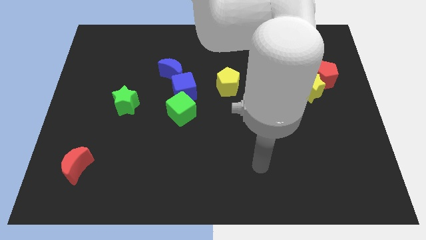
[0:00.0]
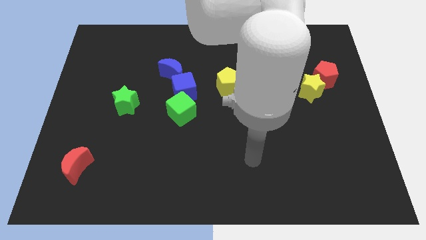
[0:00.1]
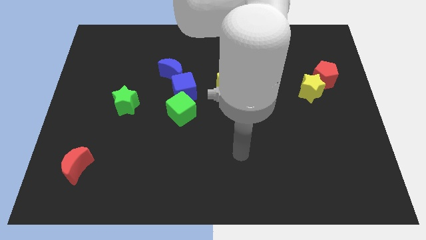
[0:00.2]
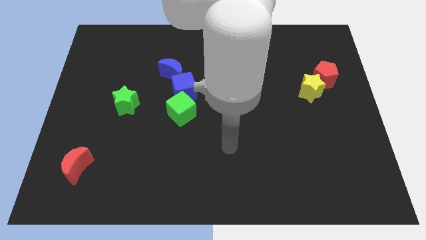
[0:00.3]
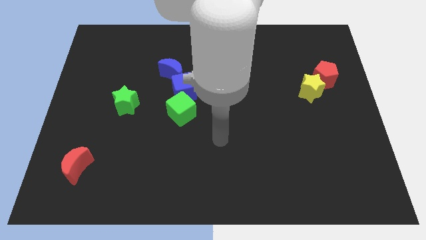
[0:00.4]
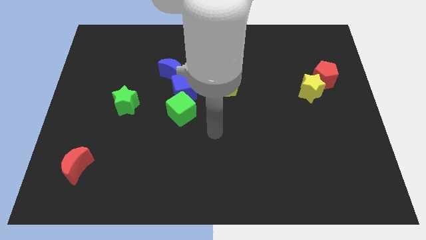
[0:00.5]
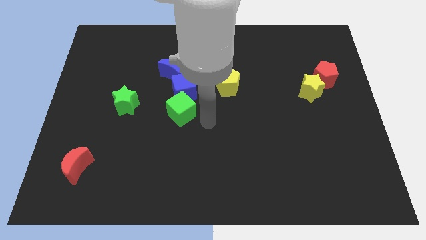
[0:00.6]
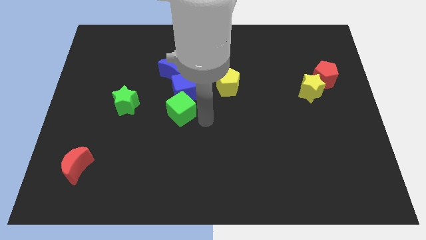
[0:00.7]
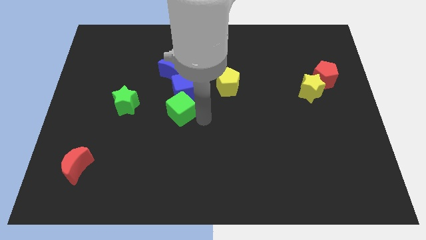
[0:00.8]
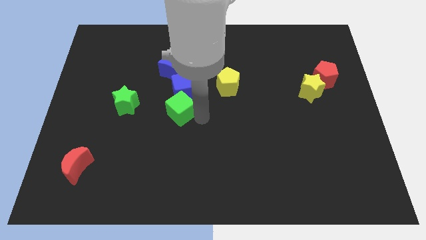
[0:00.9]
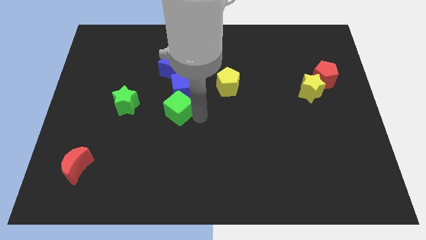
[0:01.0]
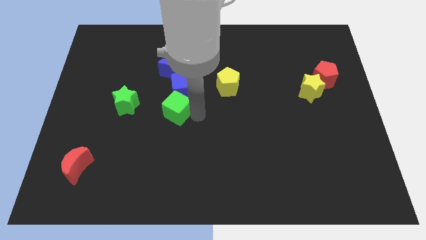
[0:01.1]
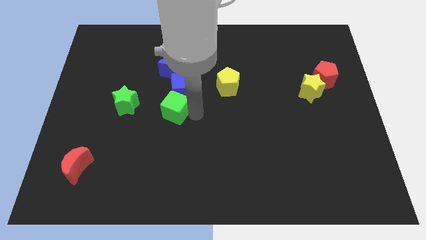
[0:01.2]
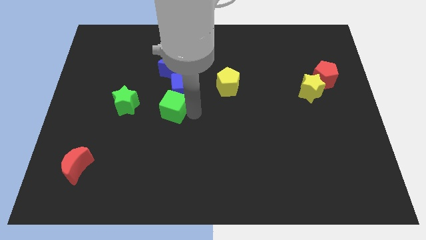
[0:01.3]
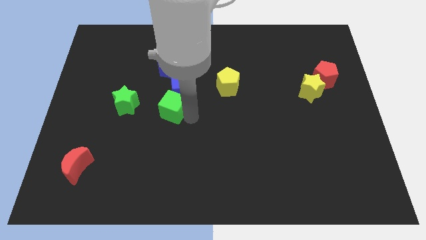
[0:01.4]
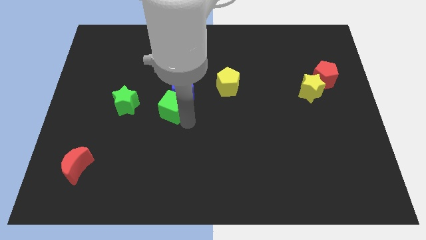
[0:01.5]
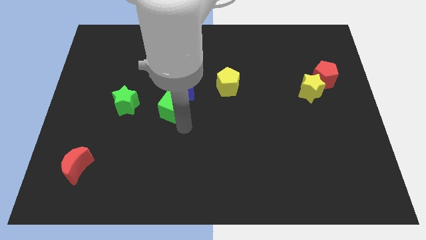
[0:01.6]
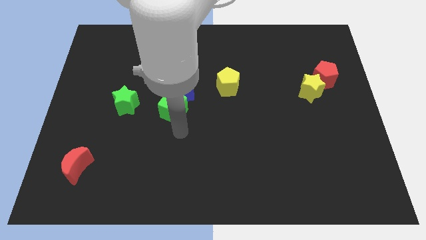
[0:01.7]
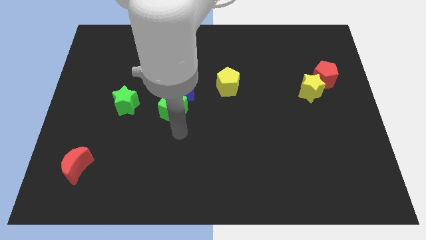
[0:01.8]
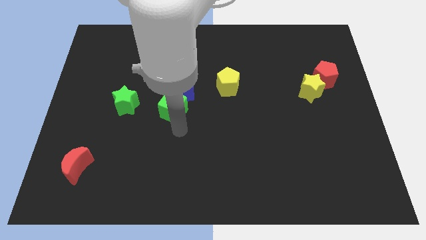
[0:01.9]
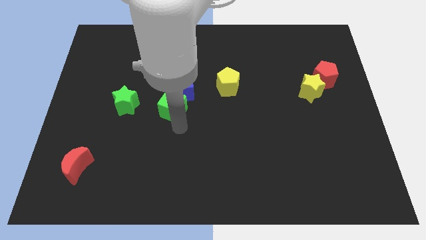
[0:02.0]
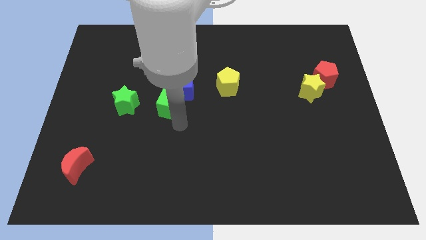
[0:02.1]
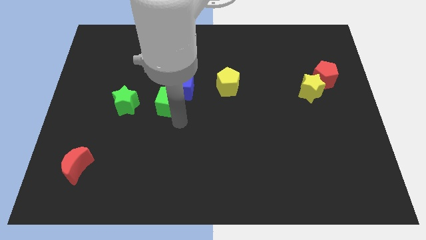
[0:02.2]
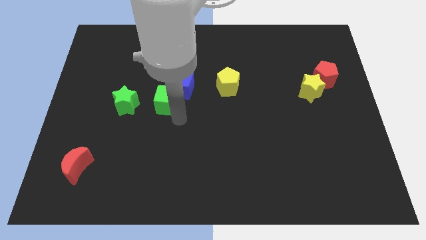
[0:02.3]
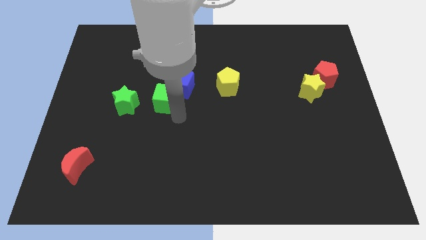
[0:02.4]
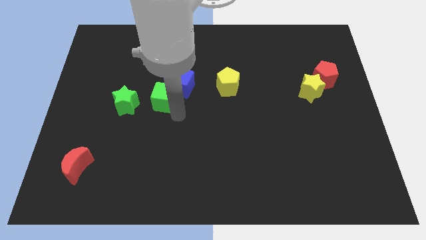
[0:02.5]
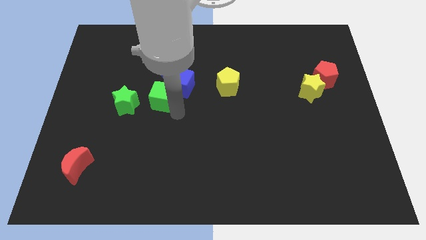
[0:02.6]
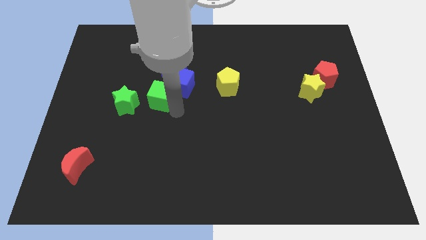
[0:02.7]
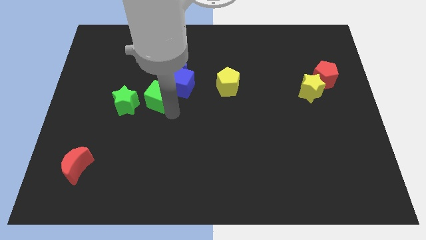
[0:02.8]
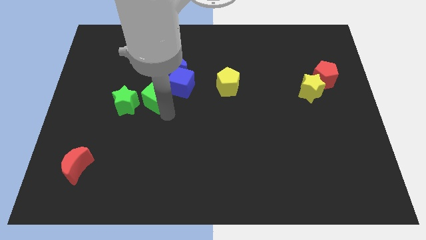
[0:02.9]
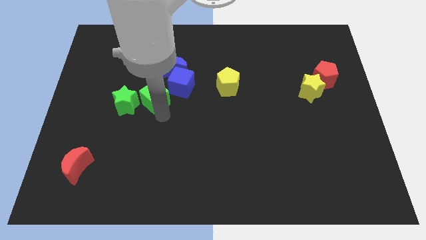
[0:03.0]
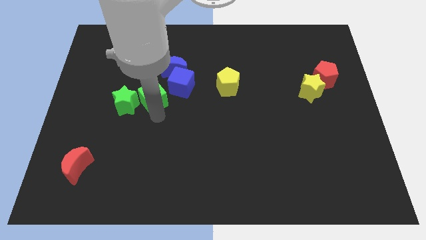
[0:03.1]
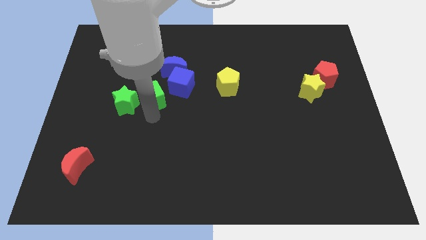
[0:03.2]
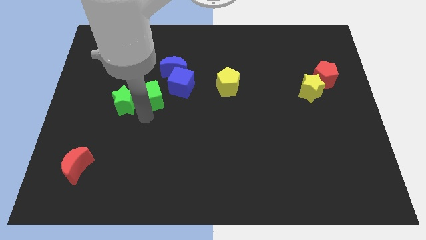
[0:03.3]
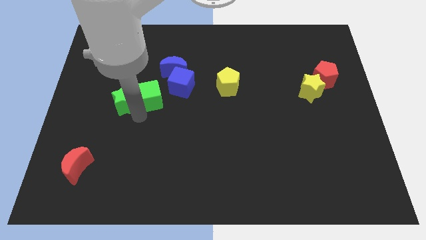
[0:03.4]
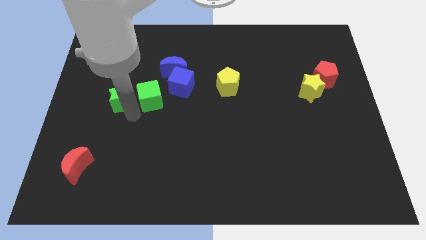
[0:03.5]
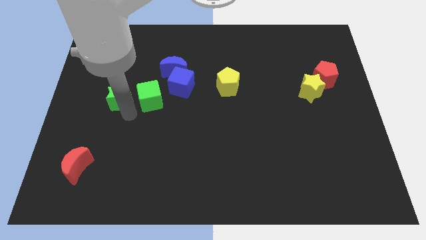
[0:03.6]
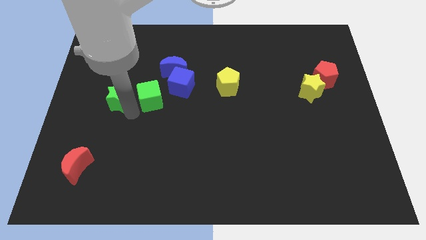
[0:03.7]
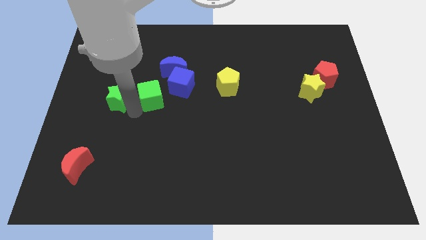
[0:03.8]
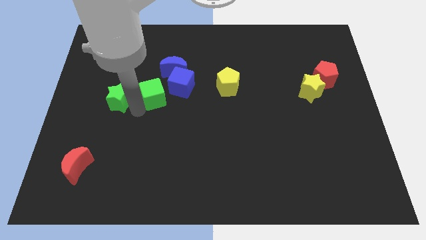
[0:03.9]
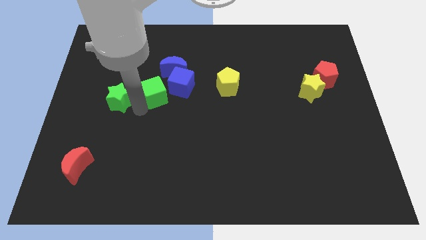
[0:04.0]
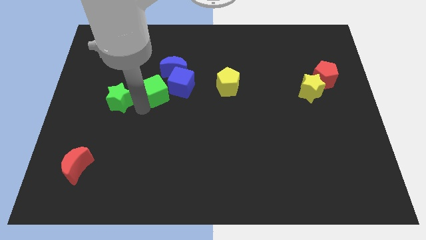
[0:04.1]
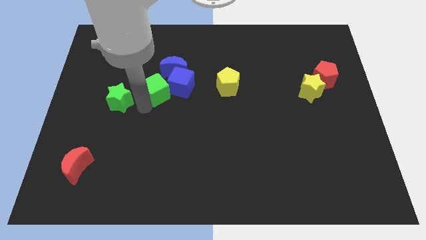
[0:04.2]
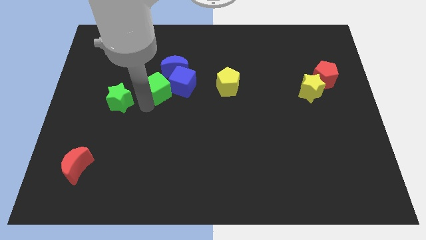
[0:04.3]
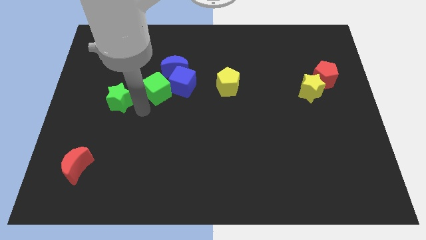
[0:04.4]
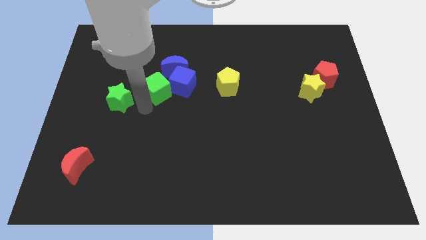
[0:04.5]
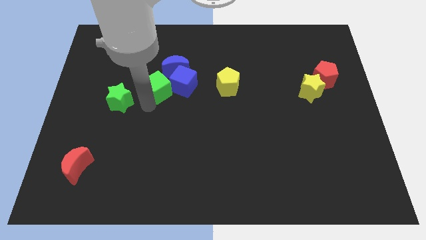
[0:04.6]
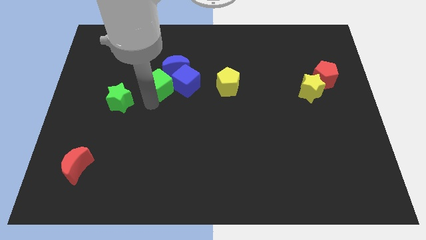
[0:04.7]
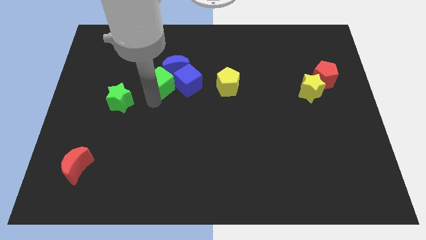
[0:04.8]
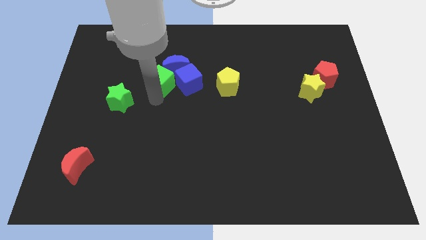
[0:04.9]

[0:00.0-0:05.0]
push the green cube to the blue moon

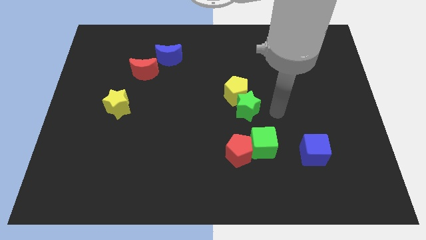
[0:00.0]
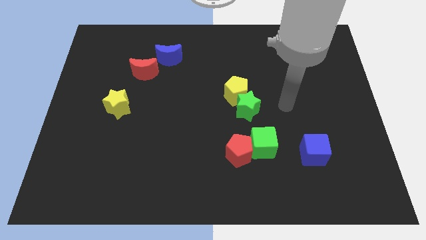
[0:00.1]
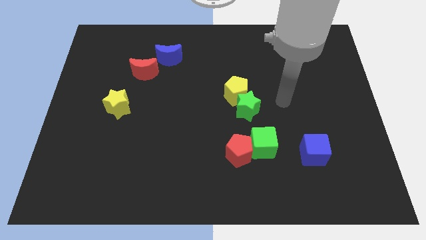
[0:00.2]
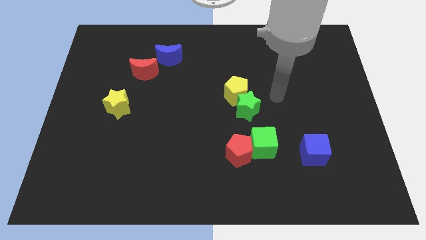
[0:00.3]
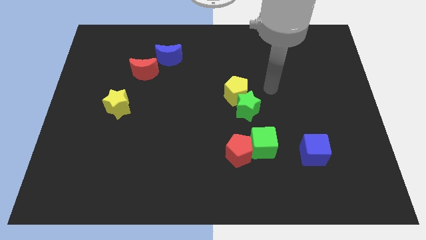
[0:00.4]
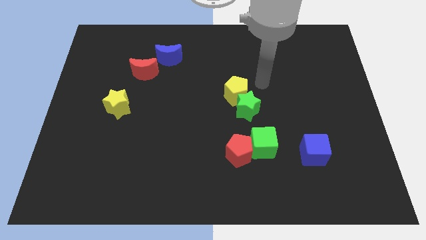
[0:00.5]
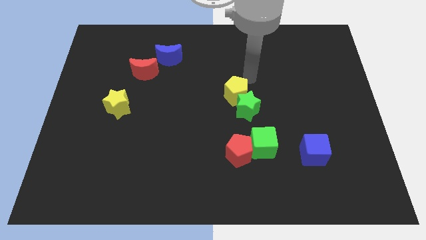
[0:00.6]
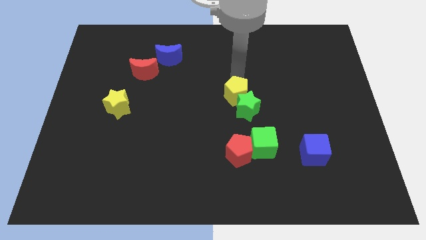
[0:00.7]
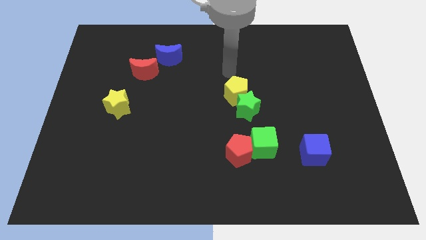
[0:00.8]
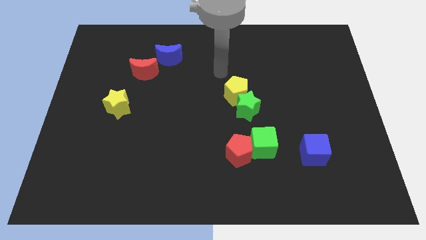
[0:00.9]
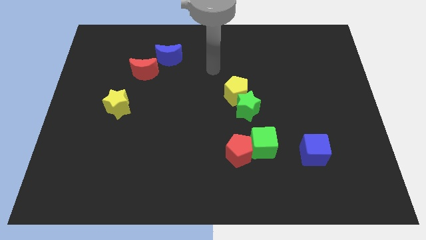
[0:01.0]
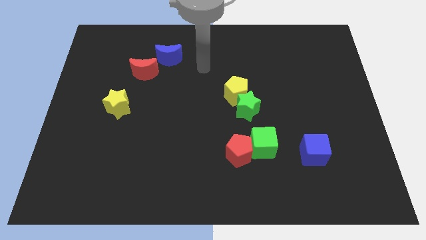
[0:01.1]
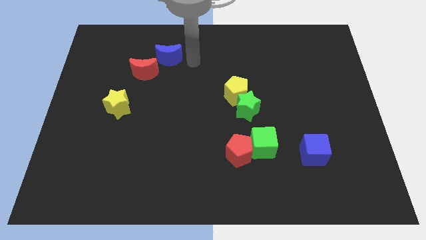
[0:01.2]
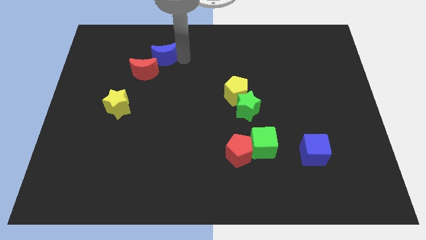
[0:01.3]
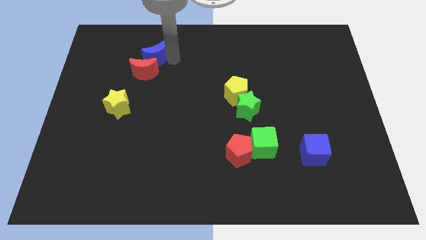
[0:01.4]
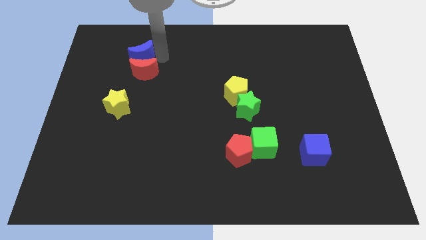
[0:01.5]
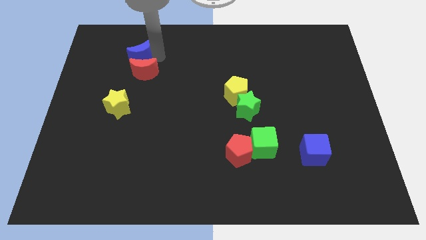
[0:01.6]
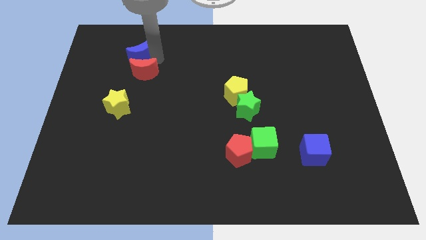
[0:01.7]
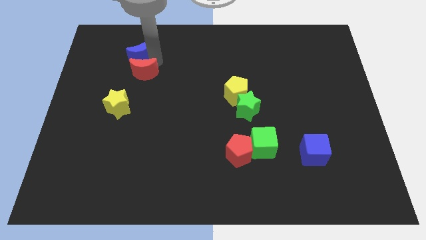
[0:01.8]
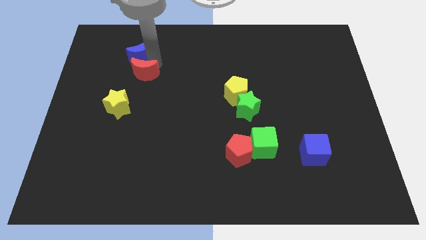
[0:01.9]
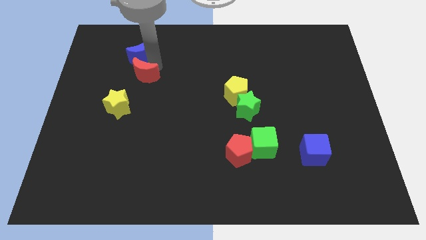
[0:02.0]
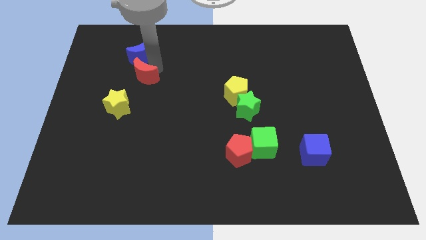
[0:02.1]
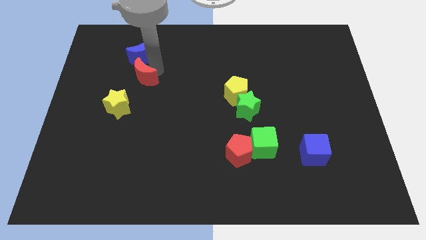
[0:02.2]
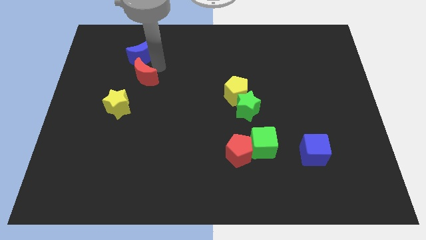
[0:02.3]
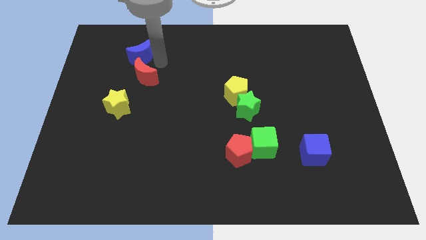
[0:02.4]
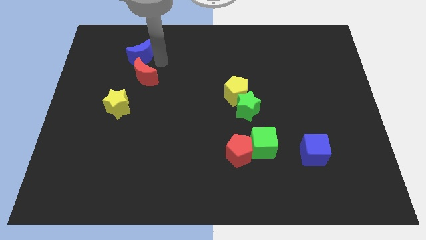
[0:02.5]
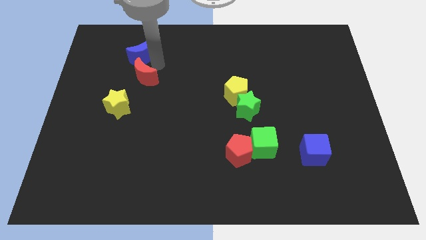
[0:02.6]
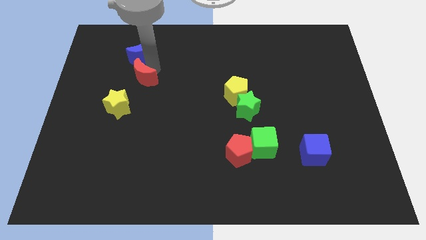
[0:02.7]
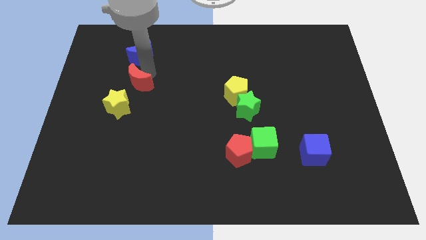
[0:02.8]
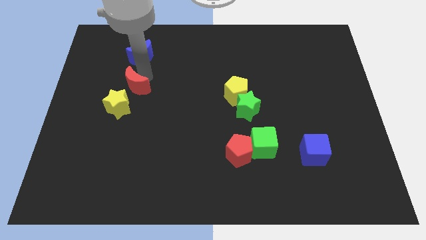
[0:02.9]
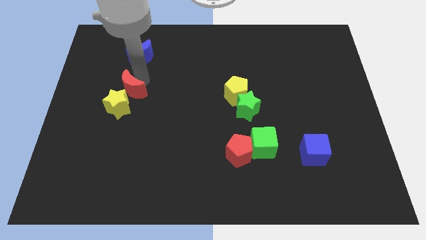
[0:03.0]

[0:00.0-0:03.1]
move the red moon to the yellow star
